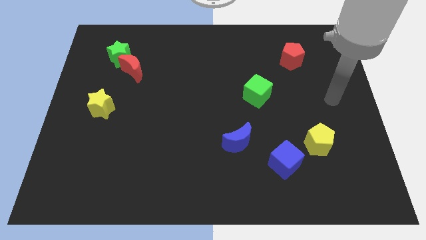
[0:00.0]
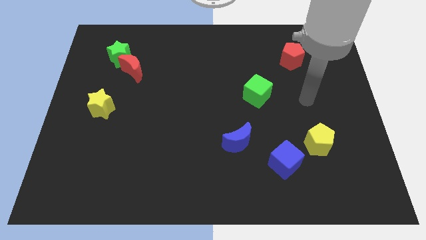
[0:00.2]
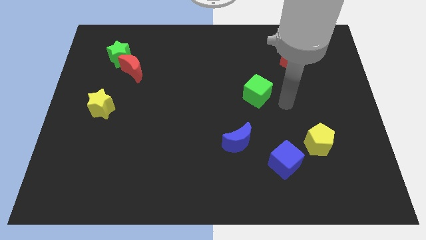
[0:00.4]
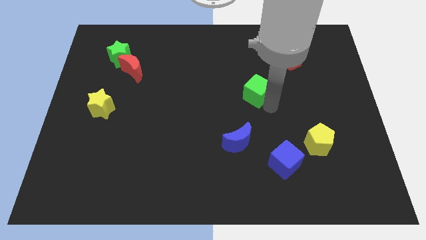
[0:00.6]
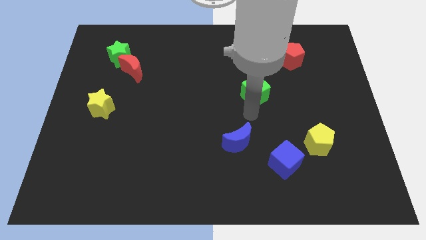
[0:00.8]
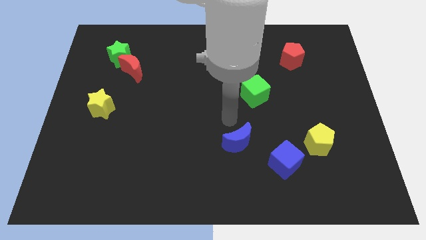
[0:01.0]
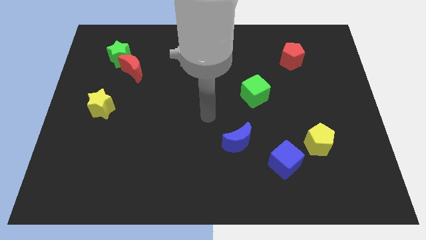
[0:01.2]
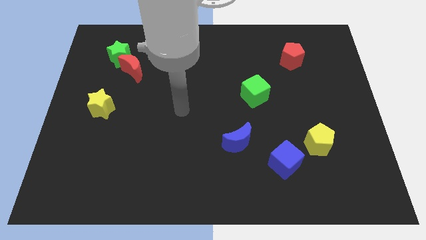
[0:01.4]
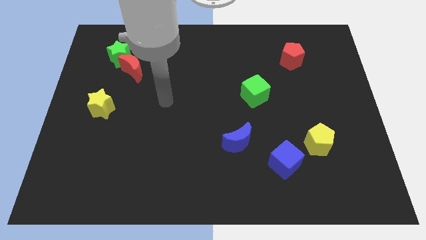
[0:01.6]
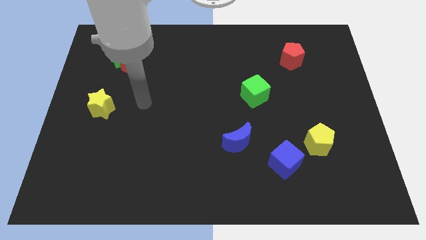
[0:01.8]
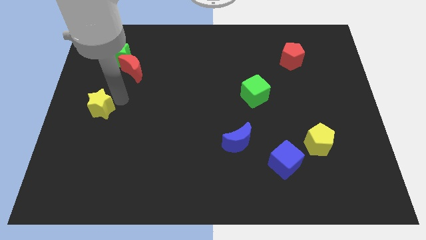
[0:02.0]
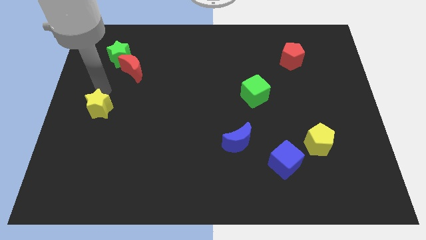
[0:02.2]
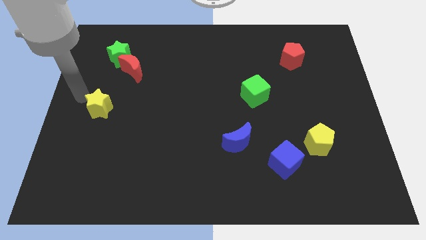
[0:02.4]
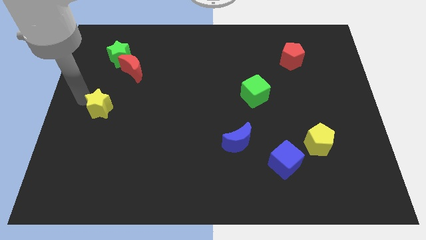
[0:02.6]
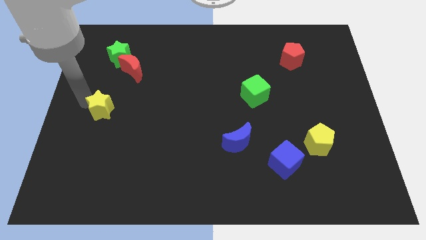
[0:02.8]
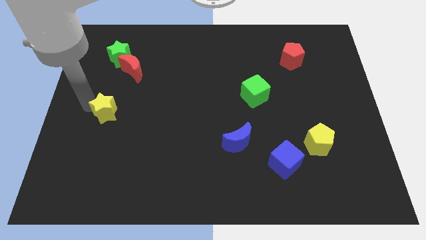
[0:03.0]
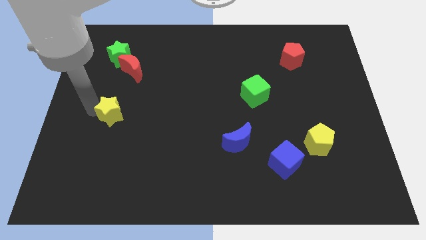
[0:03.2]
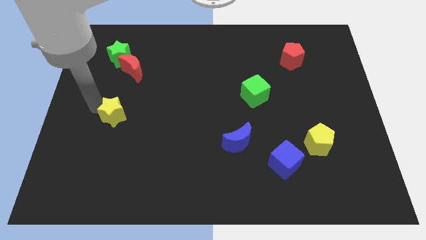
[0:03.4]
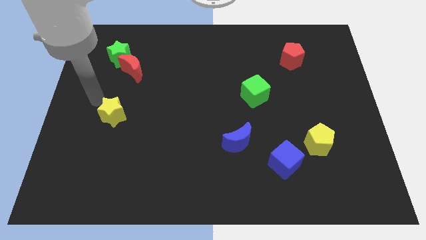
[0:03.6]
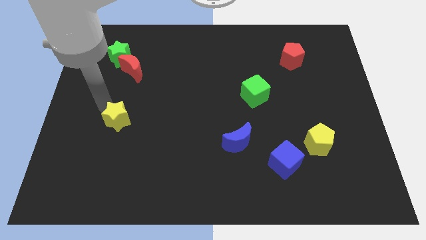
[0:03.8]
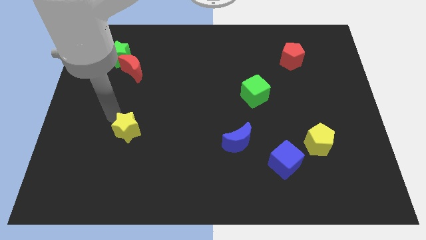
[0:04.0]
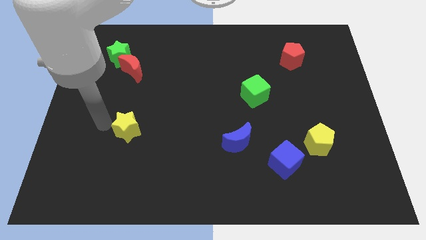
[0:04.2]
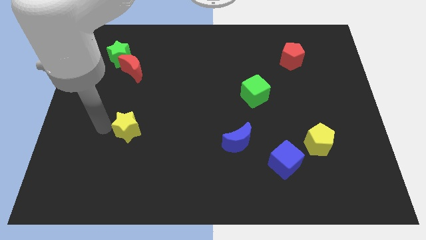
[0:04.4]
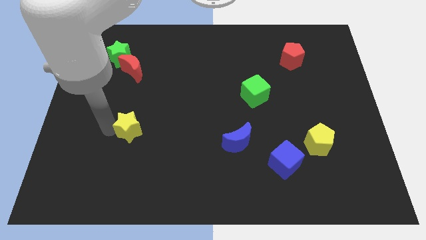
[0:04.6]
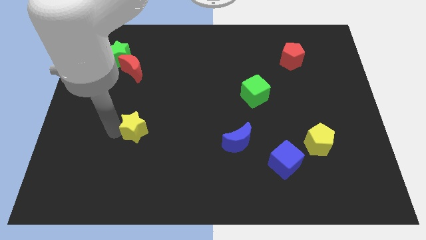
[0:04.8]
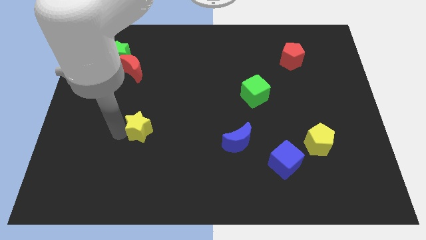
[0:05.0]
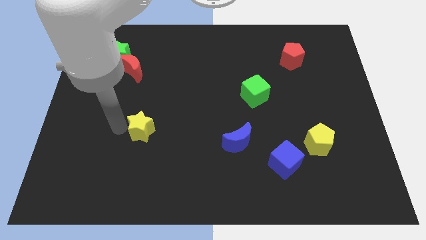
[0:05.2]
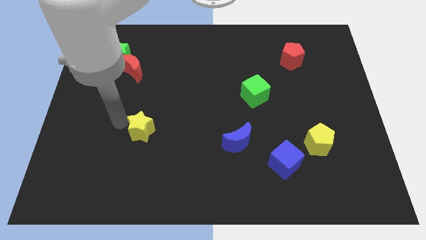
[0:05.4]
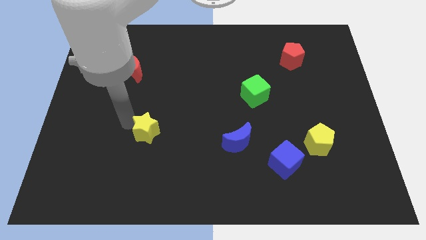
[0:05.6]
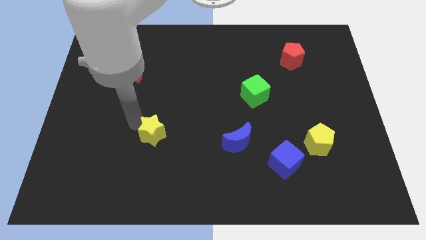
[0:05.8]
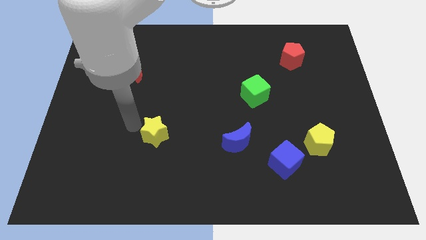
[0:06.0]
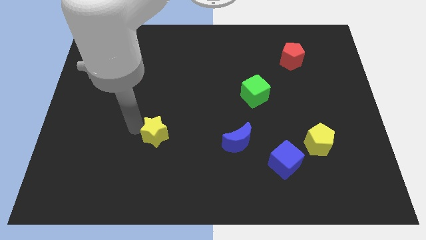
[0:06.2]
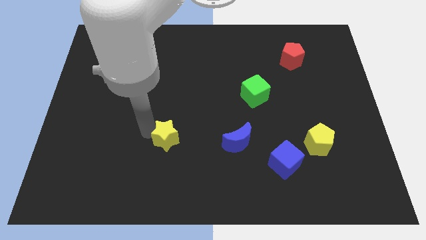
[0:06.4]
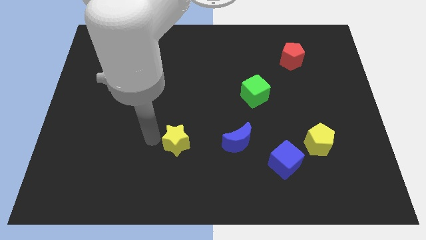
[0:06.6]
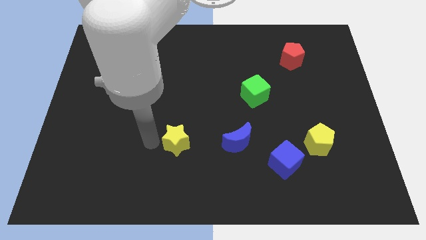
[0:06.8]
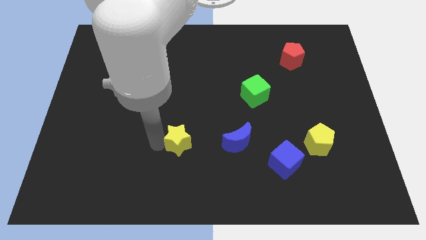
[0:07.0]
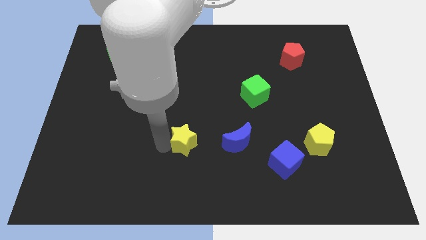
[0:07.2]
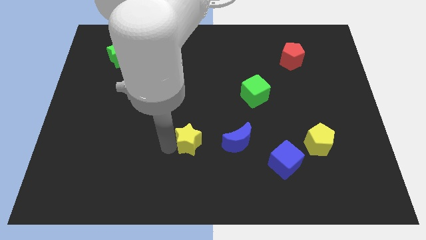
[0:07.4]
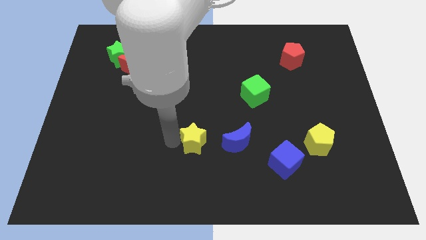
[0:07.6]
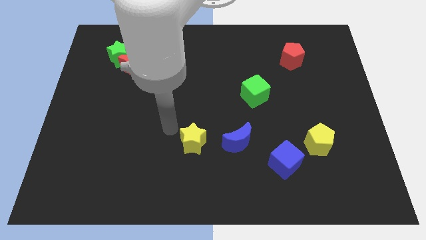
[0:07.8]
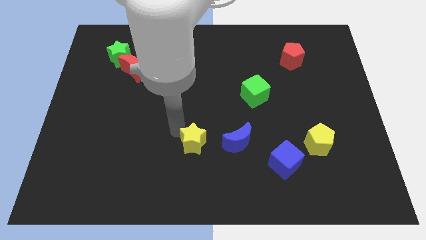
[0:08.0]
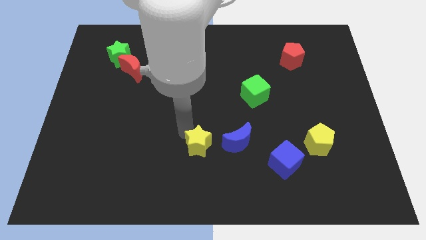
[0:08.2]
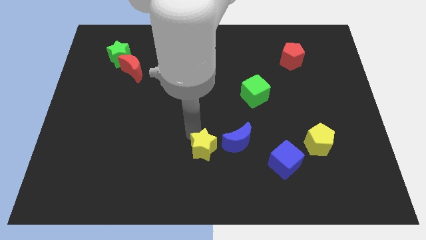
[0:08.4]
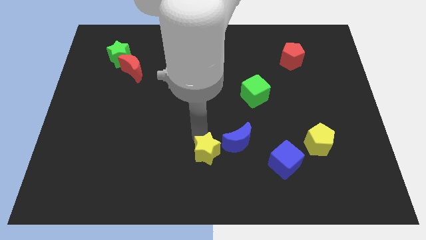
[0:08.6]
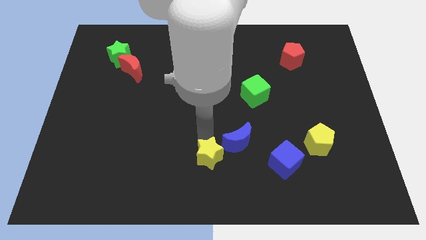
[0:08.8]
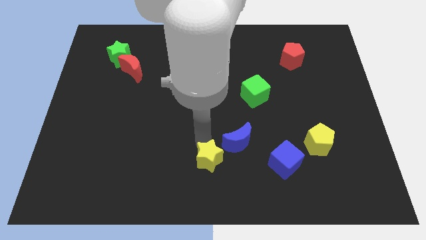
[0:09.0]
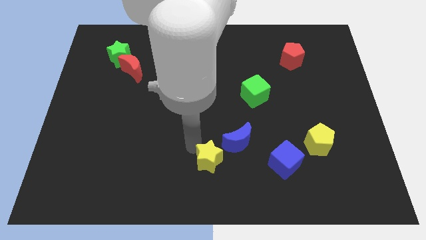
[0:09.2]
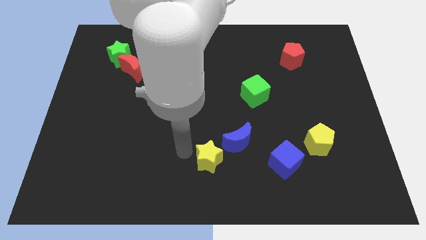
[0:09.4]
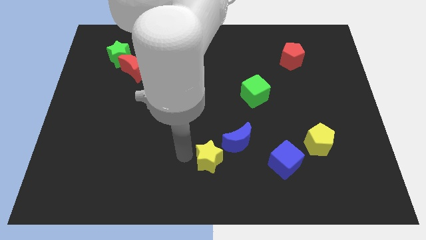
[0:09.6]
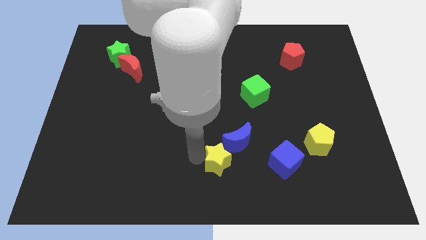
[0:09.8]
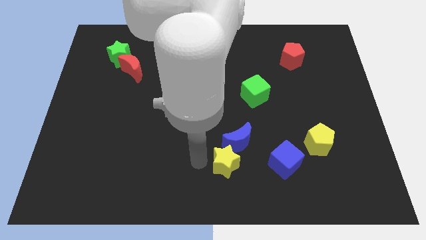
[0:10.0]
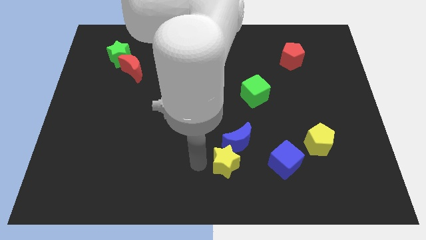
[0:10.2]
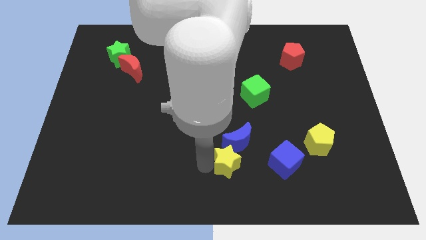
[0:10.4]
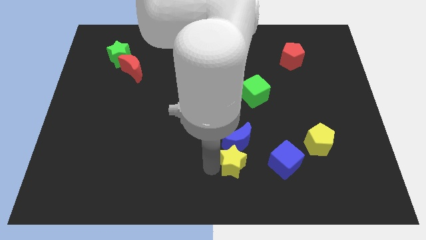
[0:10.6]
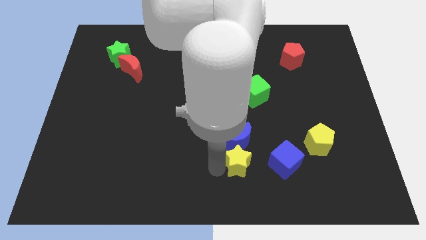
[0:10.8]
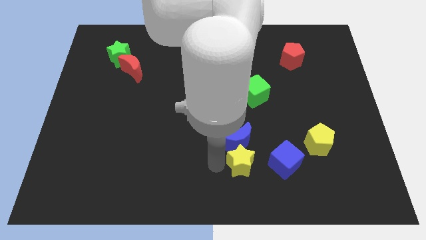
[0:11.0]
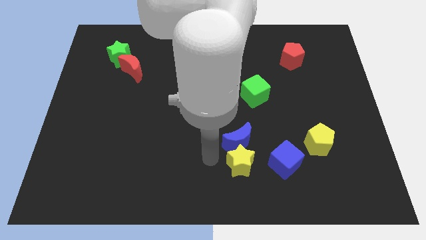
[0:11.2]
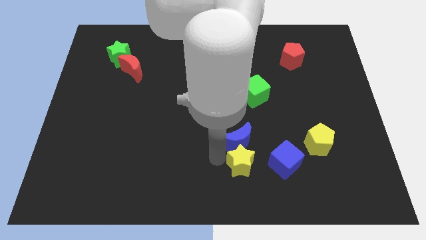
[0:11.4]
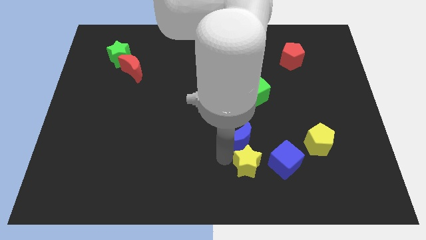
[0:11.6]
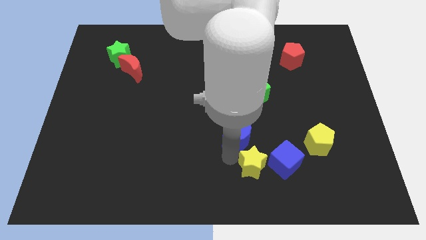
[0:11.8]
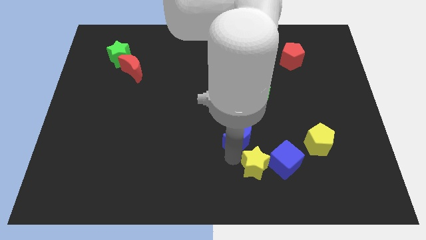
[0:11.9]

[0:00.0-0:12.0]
move the yellow star next to the blue cube

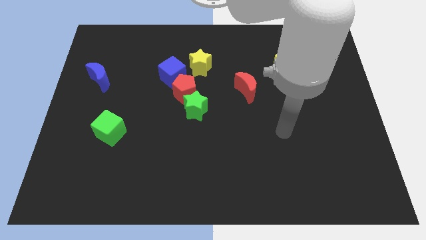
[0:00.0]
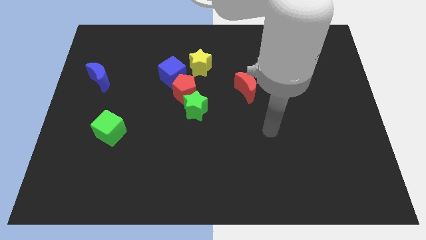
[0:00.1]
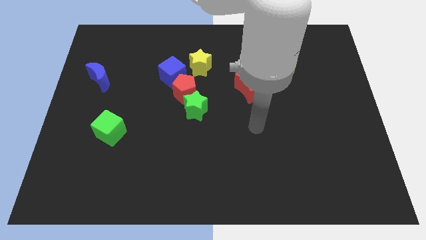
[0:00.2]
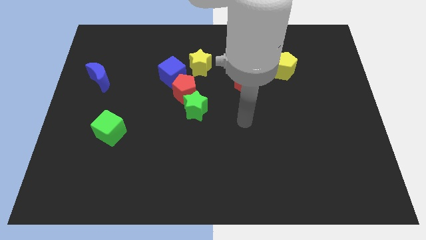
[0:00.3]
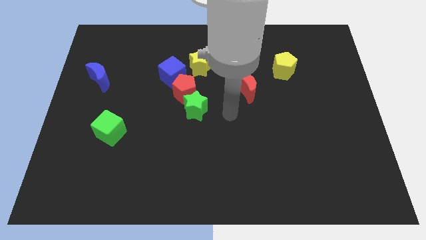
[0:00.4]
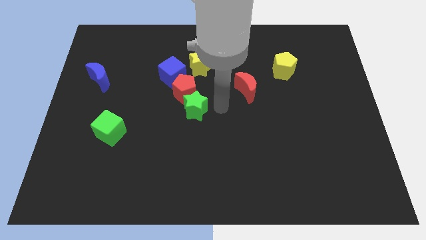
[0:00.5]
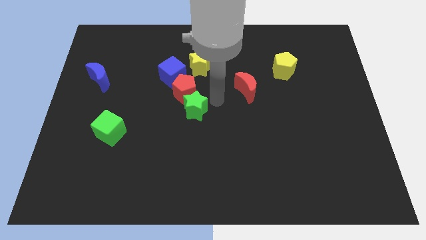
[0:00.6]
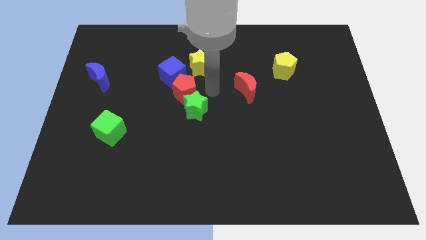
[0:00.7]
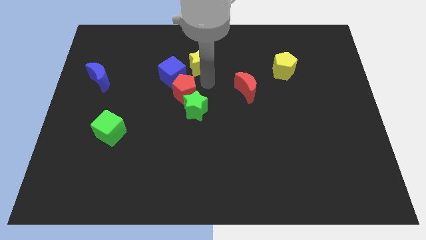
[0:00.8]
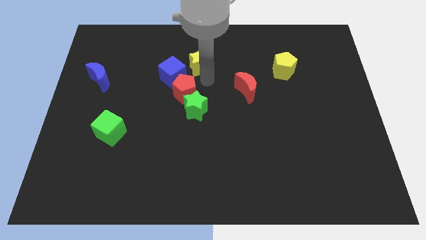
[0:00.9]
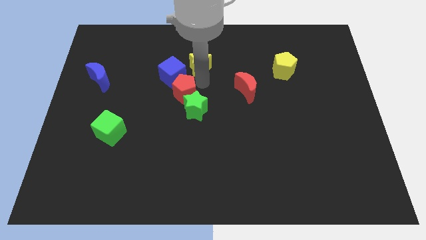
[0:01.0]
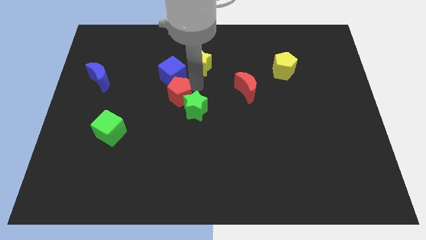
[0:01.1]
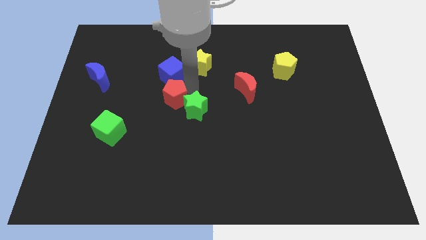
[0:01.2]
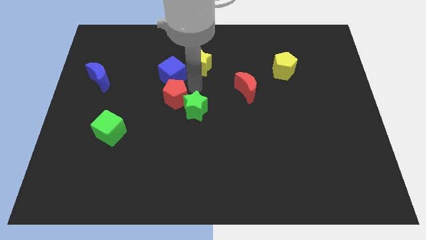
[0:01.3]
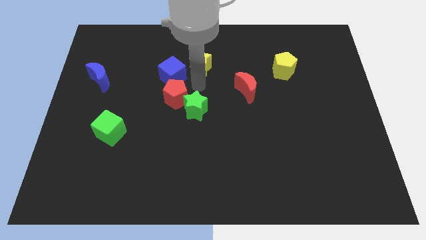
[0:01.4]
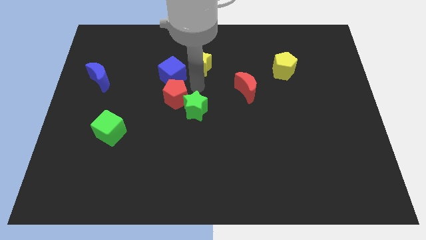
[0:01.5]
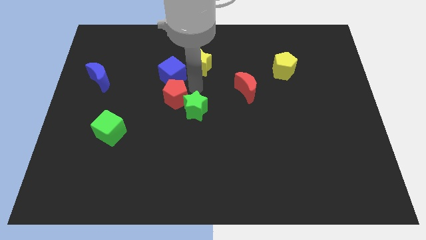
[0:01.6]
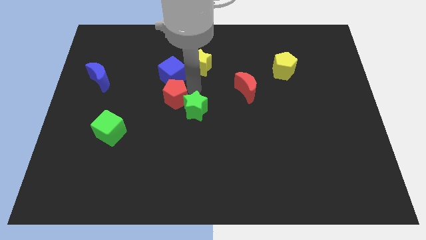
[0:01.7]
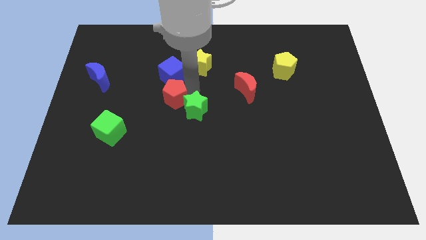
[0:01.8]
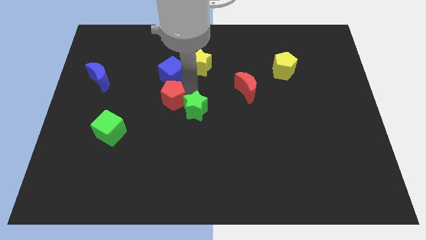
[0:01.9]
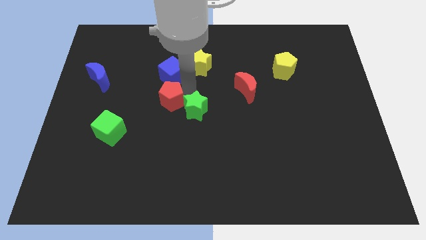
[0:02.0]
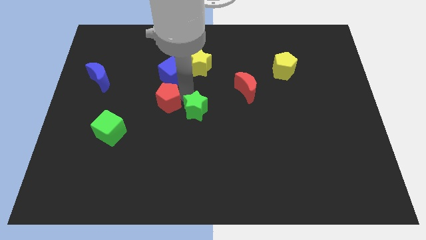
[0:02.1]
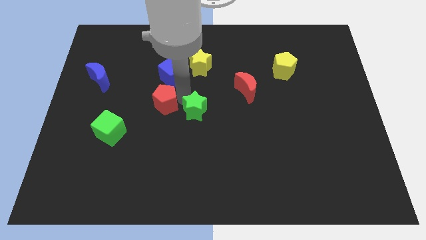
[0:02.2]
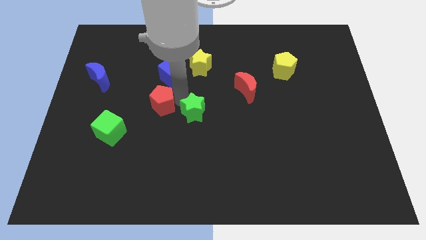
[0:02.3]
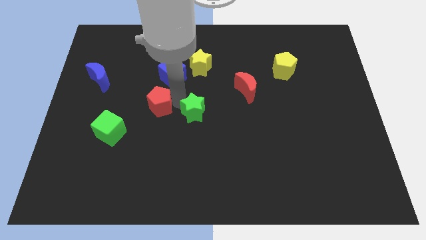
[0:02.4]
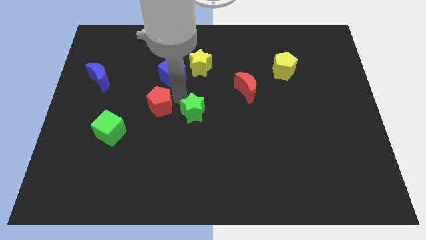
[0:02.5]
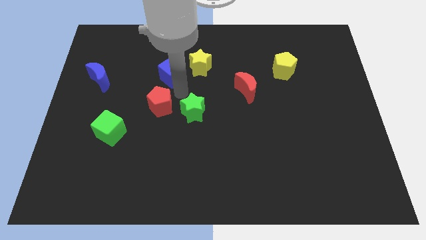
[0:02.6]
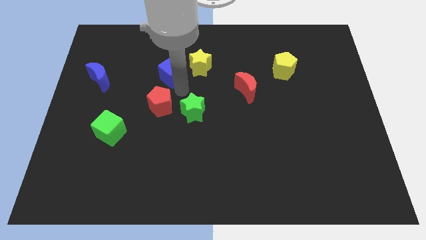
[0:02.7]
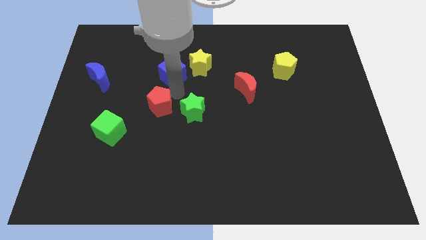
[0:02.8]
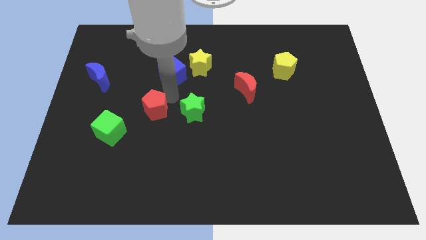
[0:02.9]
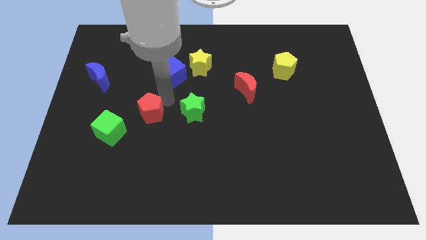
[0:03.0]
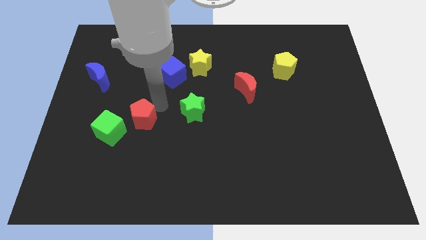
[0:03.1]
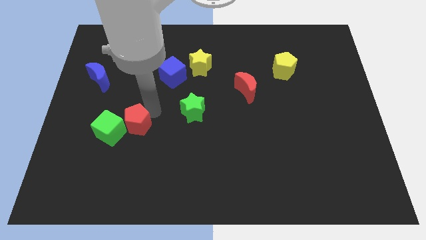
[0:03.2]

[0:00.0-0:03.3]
move the red pentagon towards the green cube
